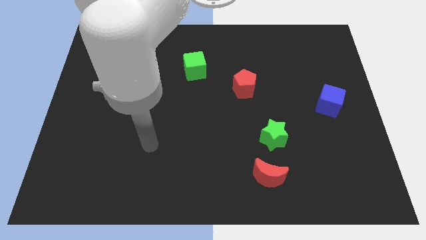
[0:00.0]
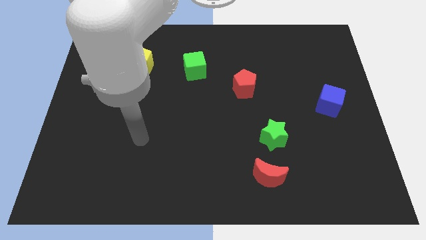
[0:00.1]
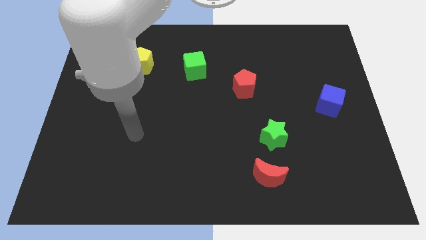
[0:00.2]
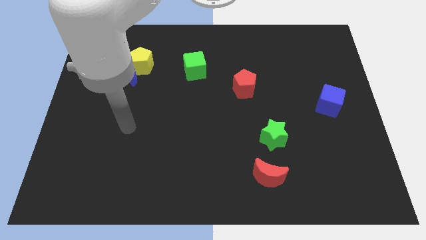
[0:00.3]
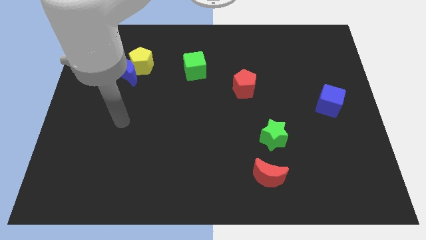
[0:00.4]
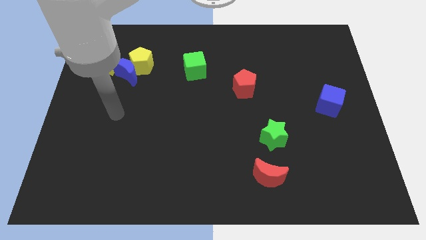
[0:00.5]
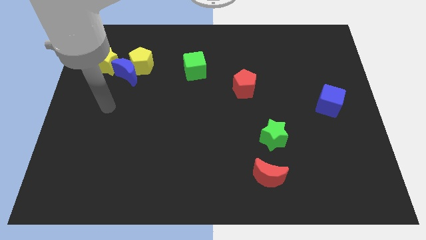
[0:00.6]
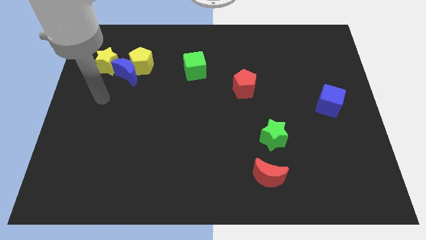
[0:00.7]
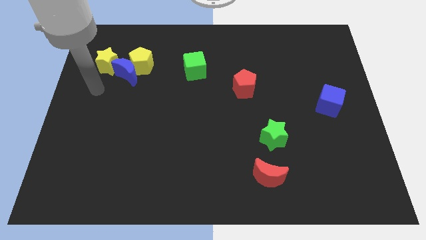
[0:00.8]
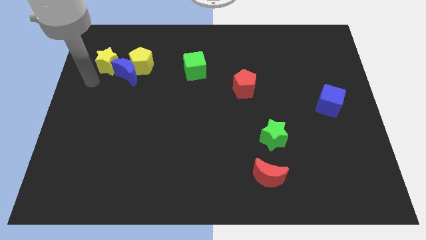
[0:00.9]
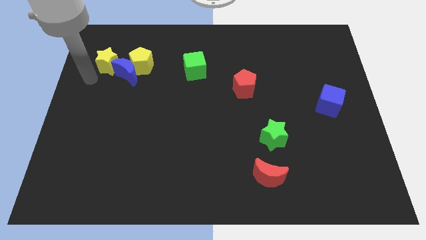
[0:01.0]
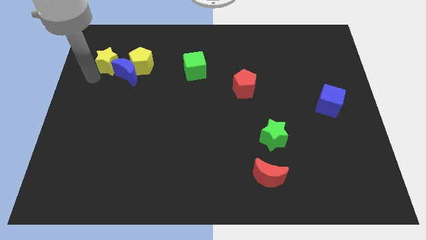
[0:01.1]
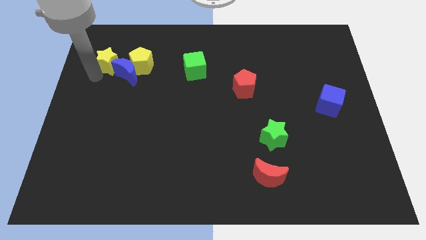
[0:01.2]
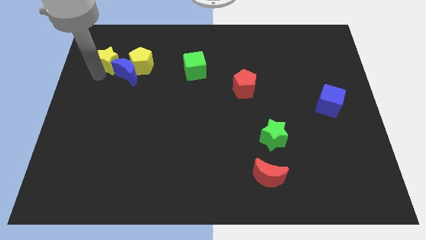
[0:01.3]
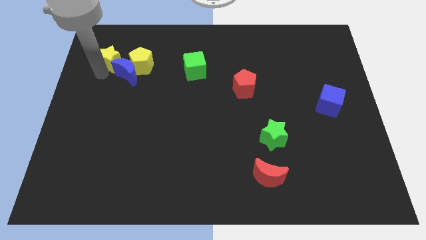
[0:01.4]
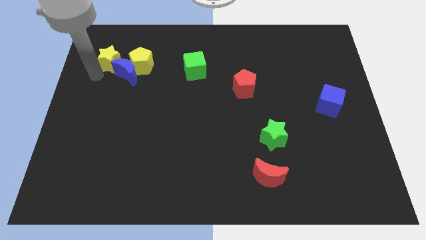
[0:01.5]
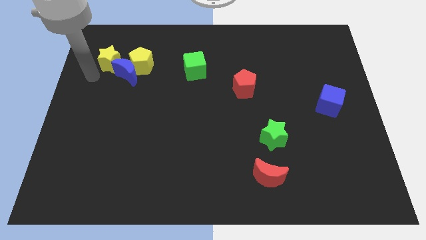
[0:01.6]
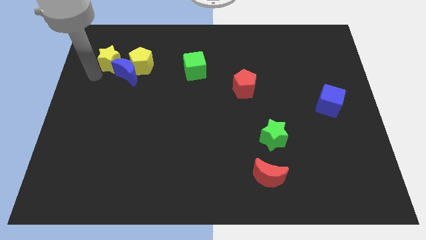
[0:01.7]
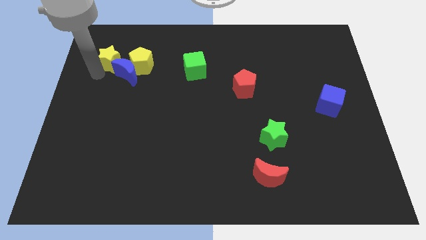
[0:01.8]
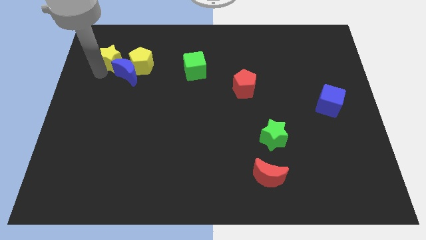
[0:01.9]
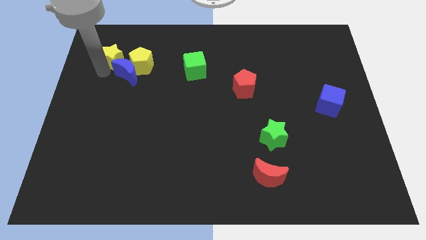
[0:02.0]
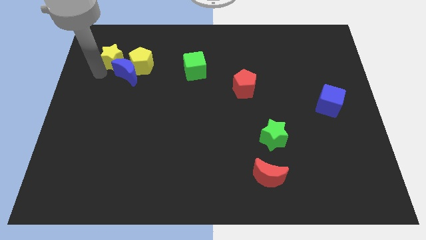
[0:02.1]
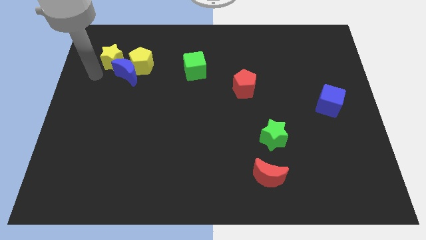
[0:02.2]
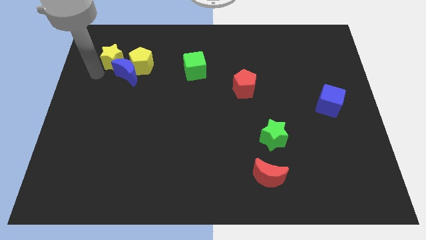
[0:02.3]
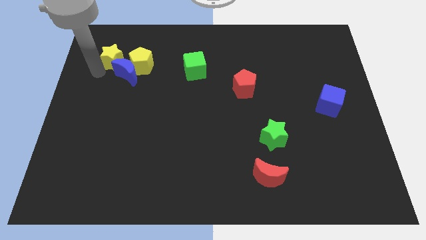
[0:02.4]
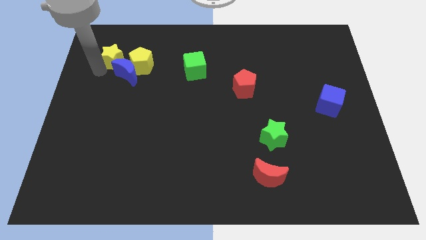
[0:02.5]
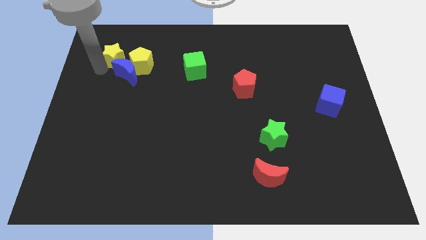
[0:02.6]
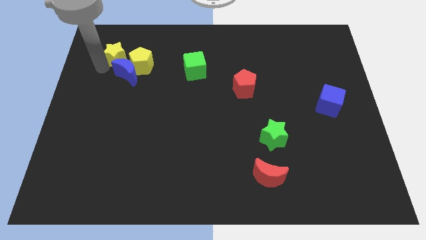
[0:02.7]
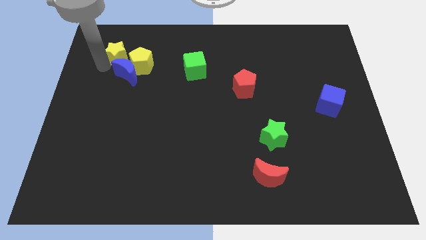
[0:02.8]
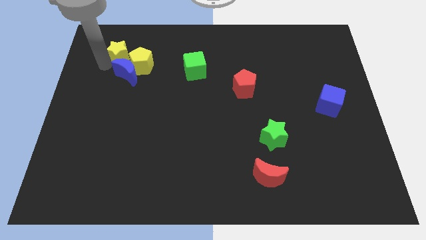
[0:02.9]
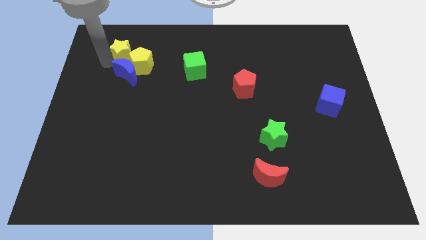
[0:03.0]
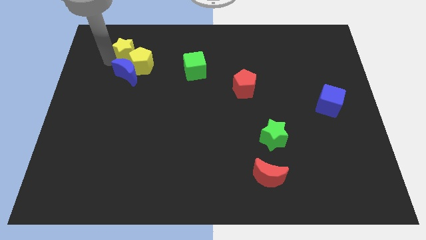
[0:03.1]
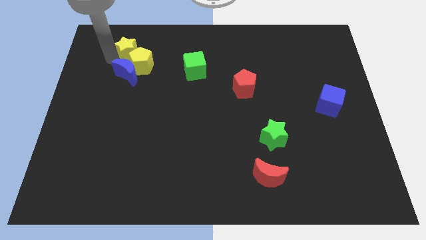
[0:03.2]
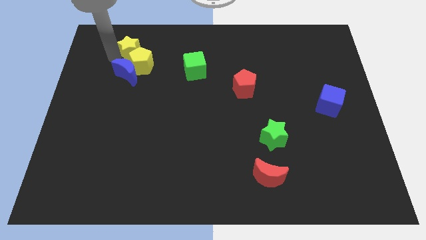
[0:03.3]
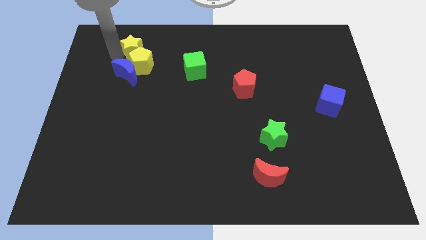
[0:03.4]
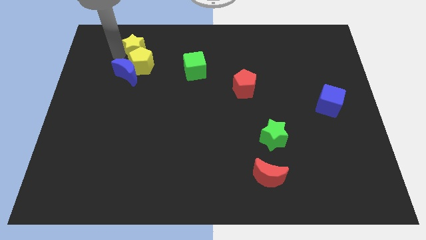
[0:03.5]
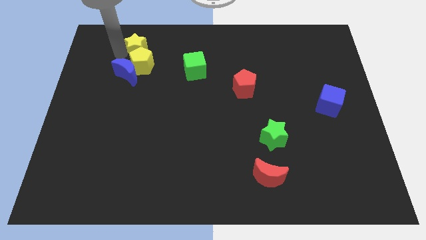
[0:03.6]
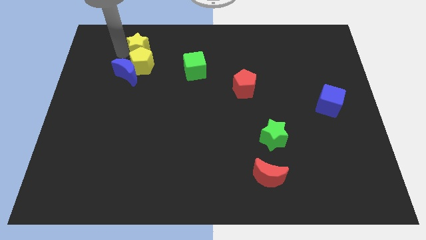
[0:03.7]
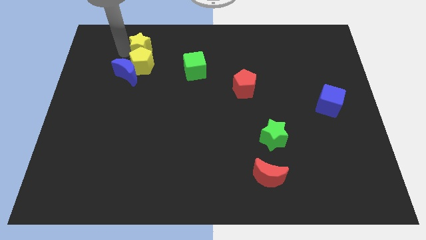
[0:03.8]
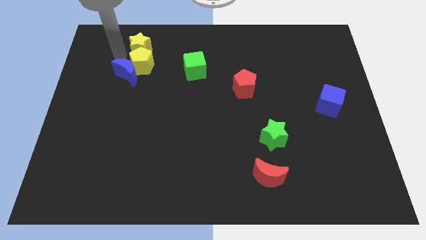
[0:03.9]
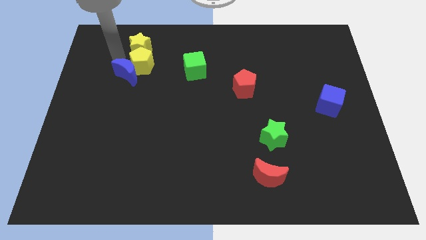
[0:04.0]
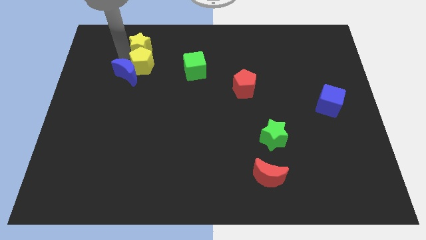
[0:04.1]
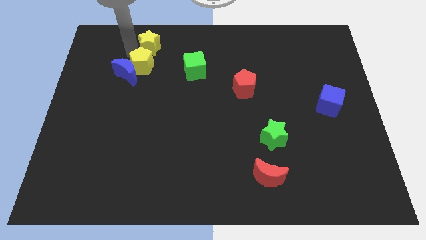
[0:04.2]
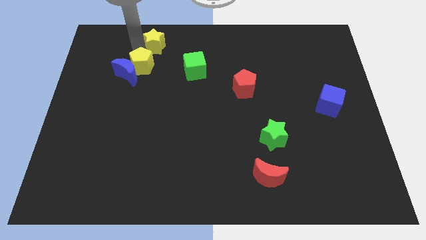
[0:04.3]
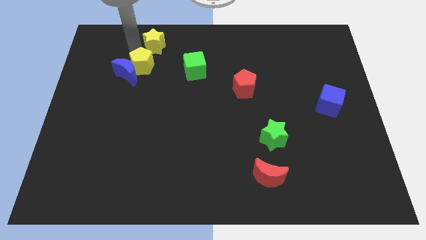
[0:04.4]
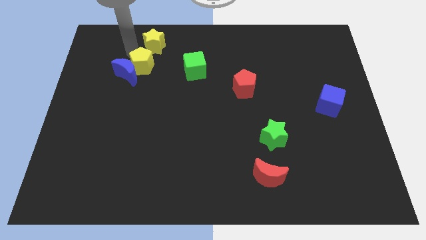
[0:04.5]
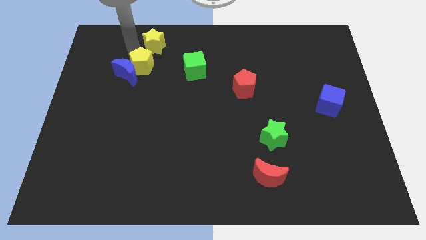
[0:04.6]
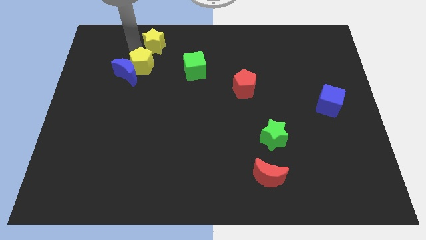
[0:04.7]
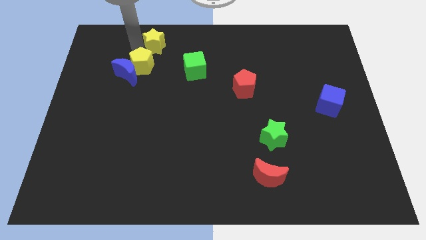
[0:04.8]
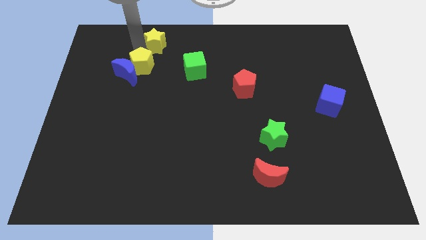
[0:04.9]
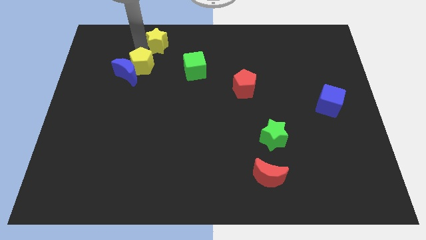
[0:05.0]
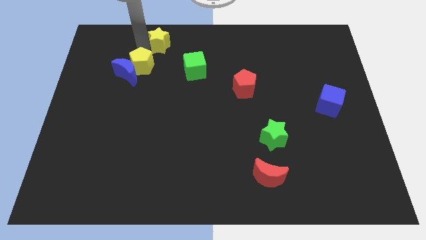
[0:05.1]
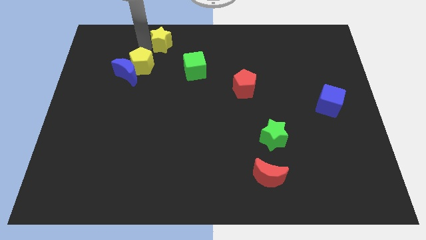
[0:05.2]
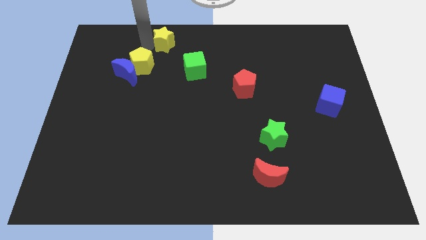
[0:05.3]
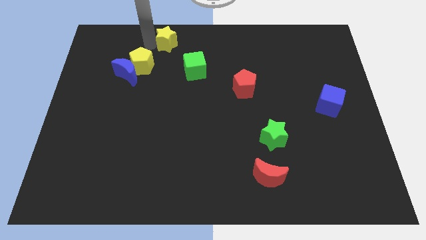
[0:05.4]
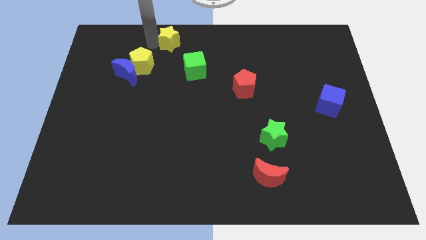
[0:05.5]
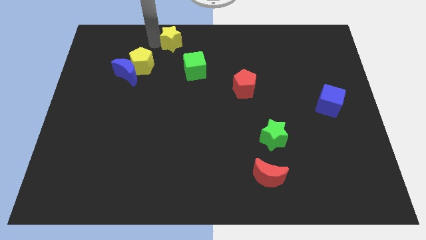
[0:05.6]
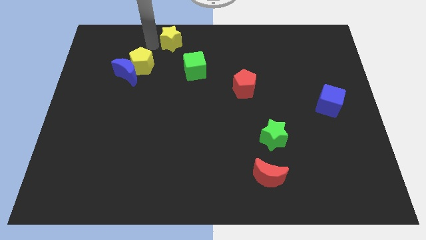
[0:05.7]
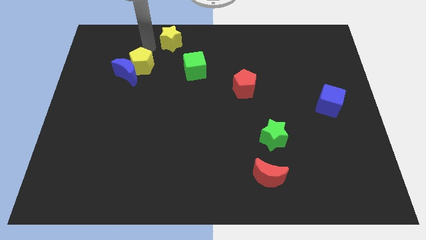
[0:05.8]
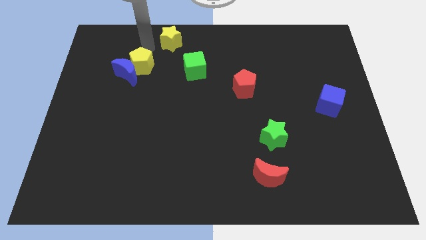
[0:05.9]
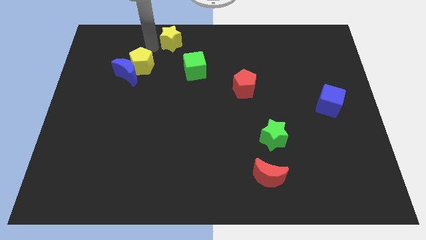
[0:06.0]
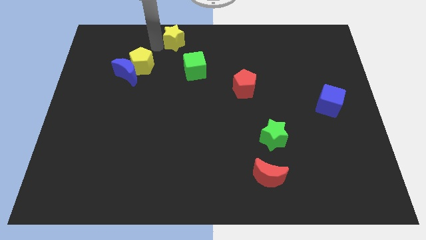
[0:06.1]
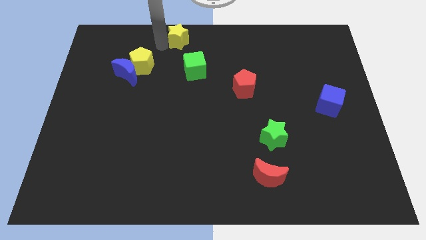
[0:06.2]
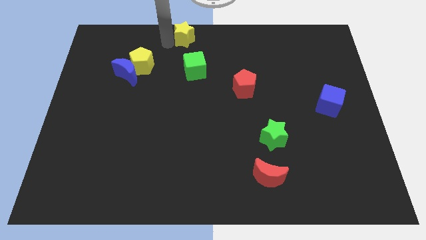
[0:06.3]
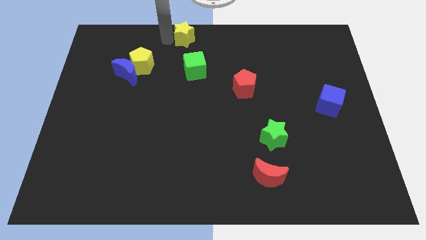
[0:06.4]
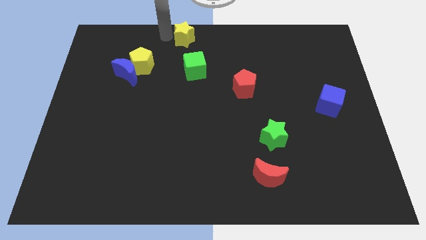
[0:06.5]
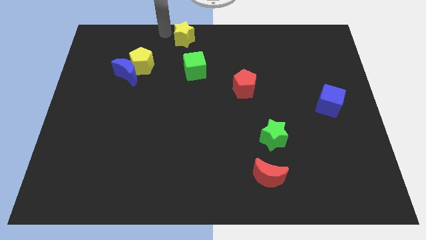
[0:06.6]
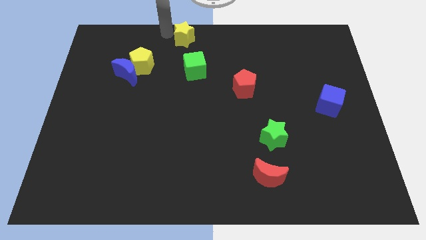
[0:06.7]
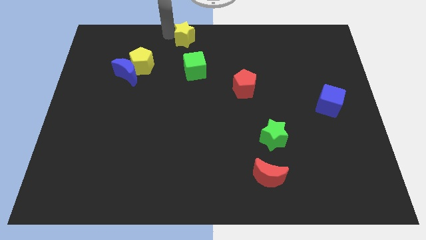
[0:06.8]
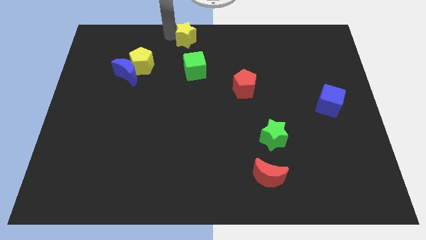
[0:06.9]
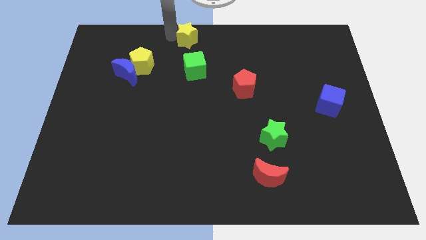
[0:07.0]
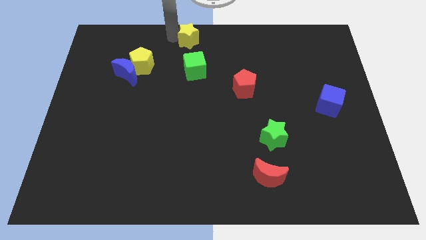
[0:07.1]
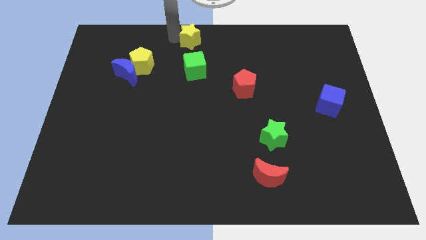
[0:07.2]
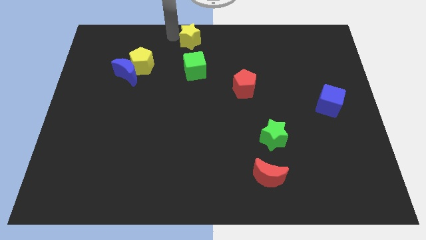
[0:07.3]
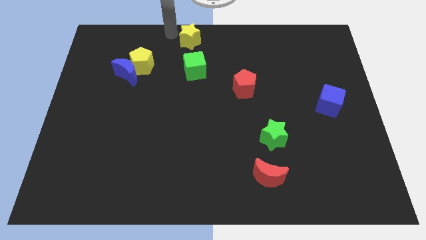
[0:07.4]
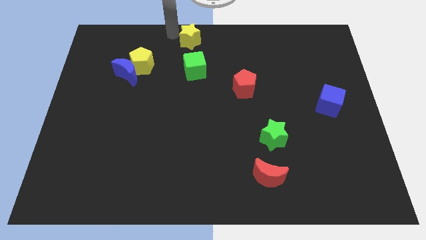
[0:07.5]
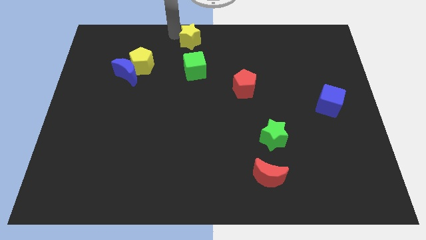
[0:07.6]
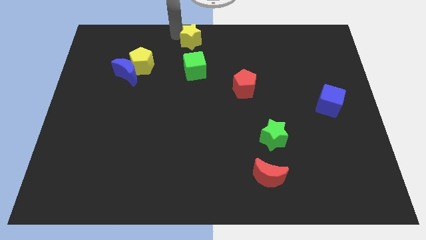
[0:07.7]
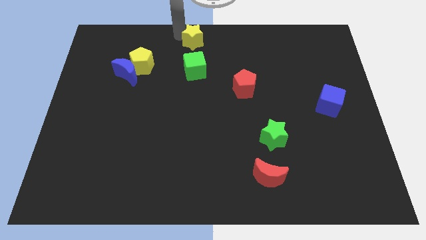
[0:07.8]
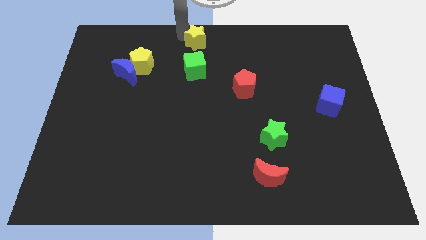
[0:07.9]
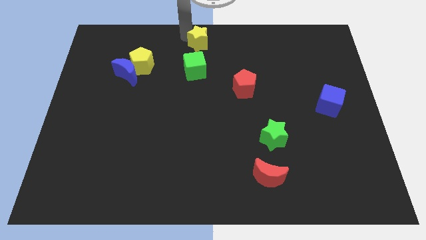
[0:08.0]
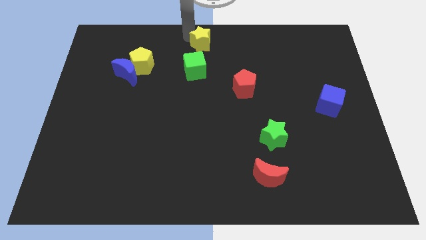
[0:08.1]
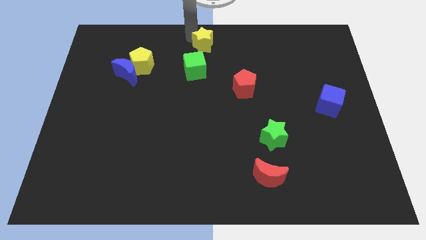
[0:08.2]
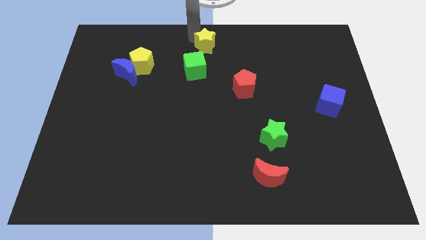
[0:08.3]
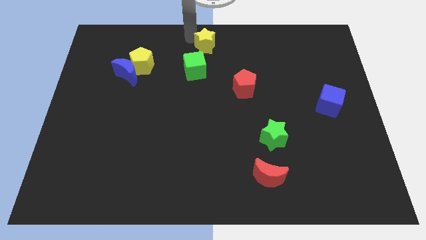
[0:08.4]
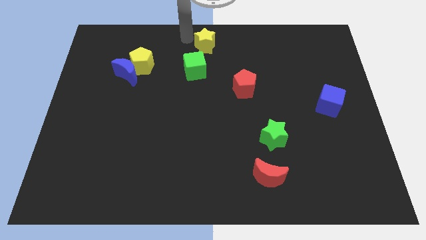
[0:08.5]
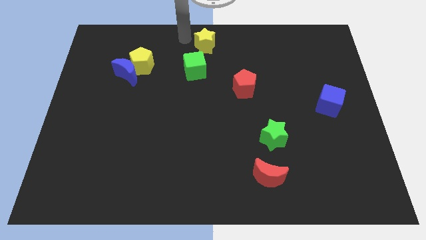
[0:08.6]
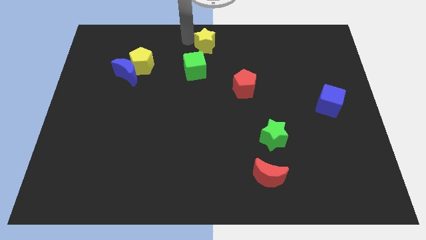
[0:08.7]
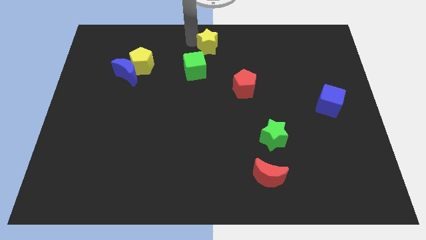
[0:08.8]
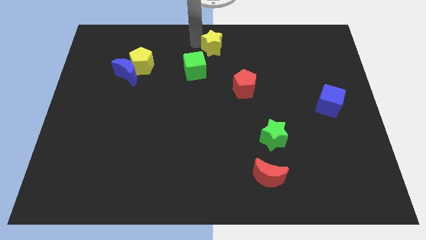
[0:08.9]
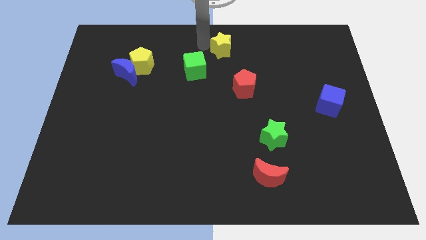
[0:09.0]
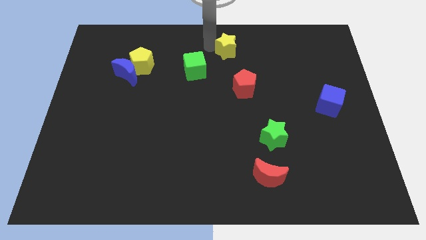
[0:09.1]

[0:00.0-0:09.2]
push the yellow star above the red pentagon
